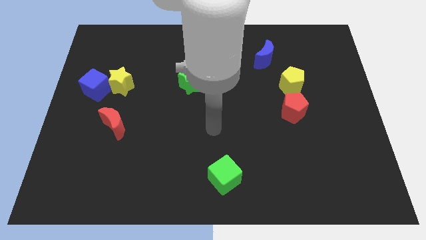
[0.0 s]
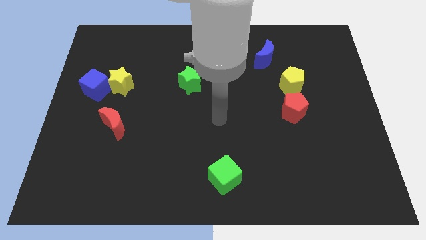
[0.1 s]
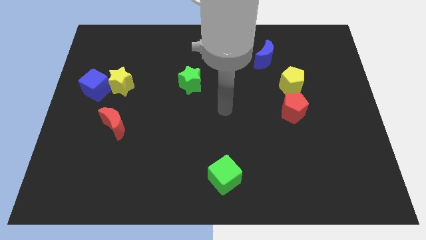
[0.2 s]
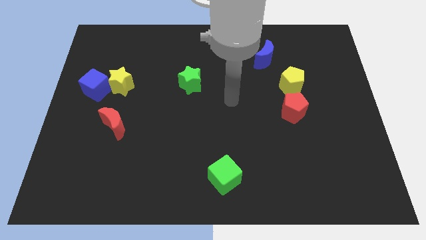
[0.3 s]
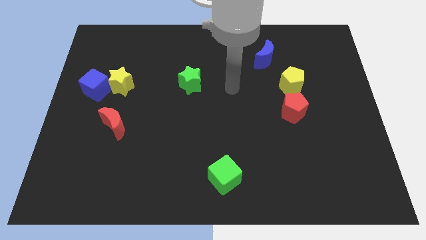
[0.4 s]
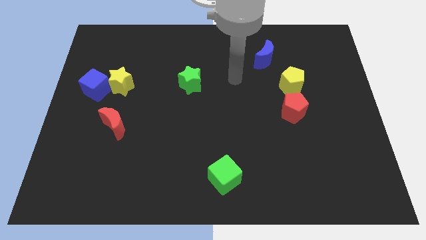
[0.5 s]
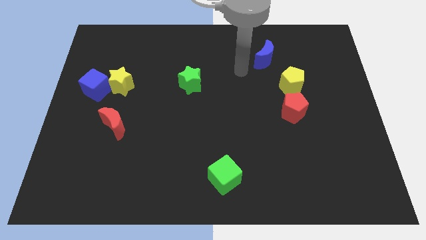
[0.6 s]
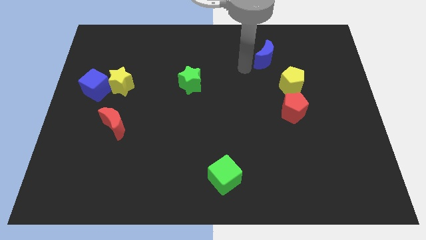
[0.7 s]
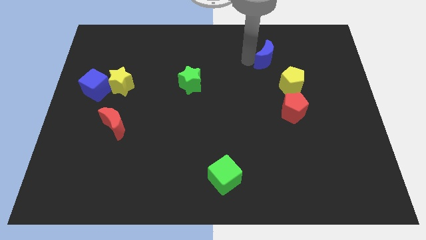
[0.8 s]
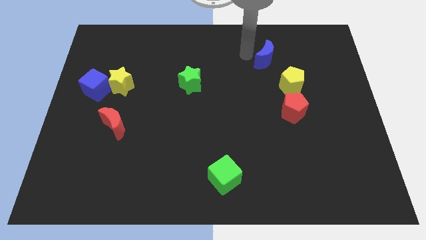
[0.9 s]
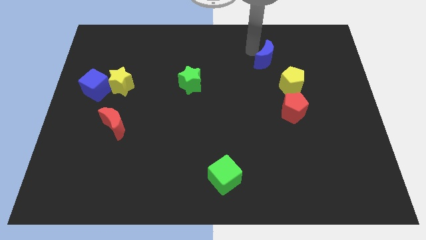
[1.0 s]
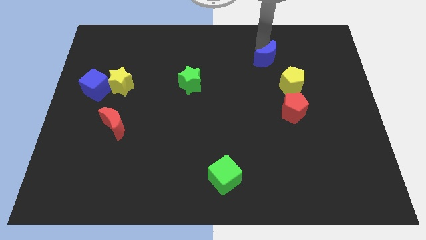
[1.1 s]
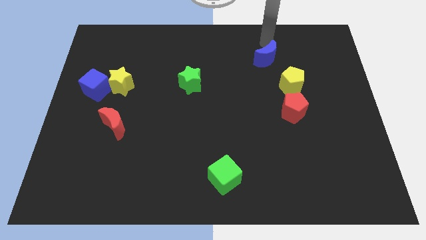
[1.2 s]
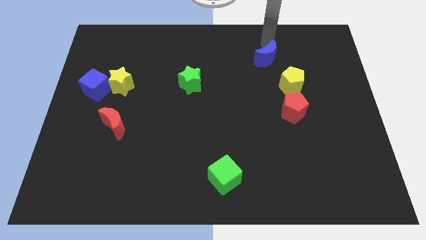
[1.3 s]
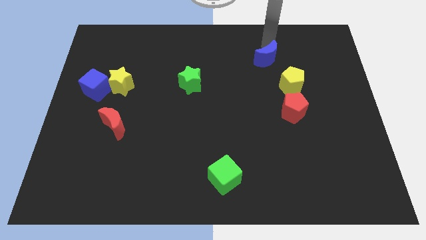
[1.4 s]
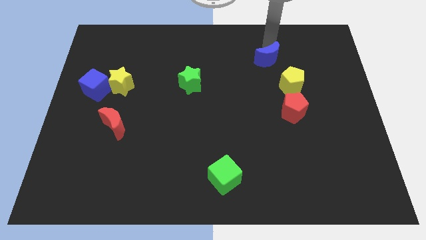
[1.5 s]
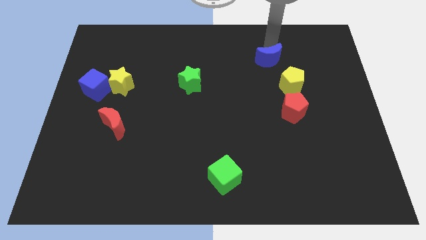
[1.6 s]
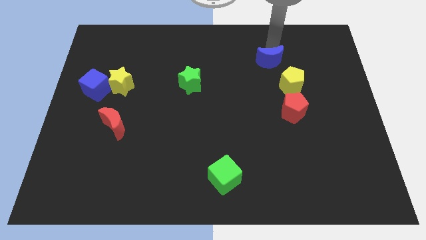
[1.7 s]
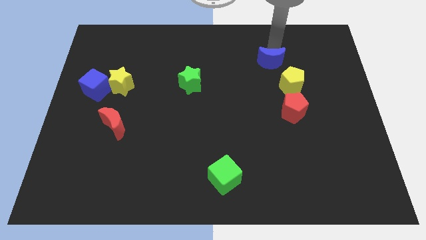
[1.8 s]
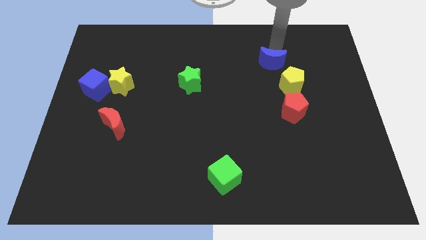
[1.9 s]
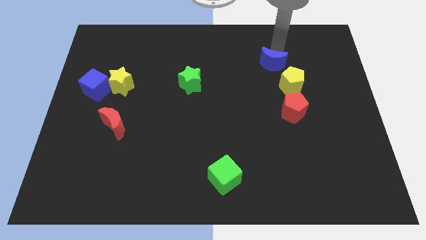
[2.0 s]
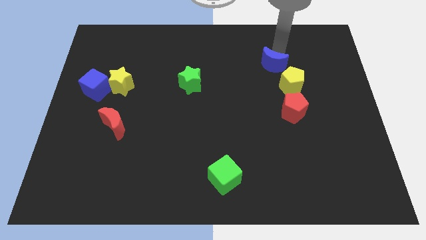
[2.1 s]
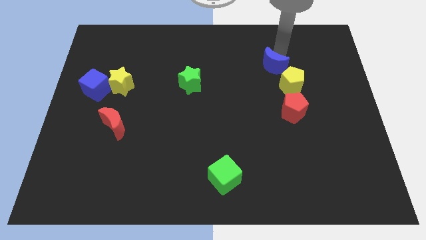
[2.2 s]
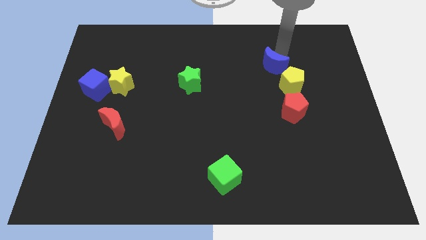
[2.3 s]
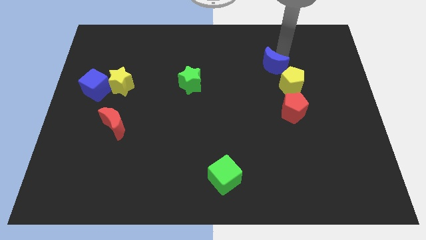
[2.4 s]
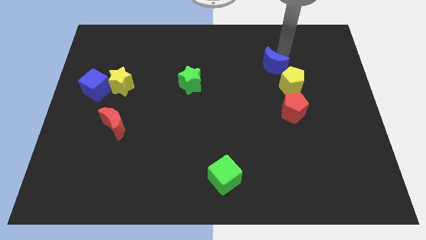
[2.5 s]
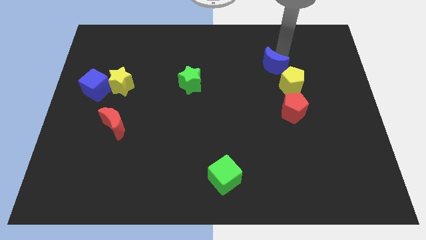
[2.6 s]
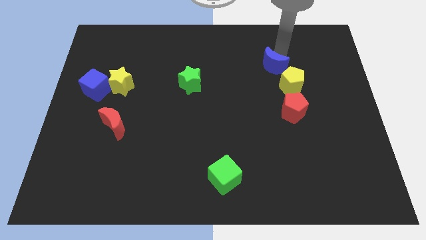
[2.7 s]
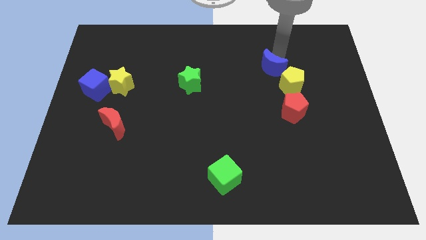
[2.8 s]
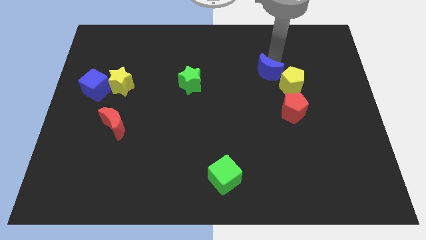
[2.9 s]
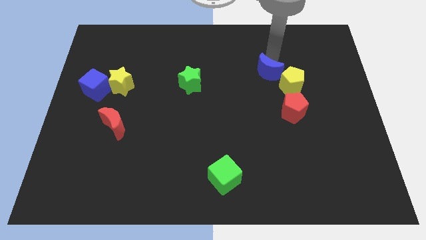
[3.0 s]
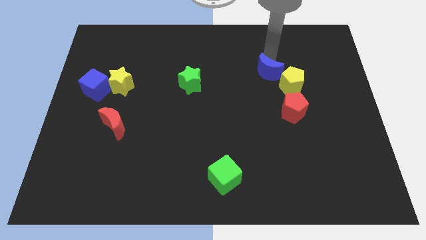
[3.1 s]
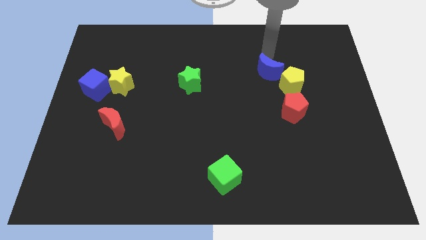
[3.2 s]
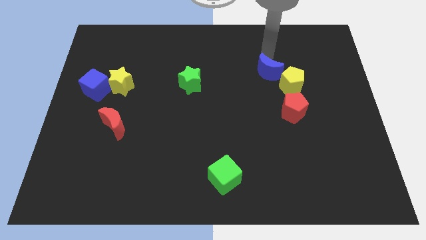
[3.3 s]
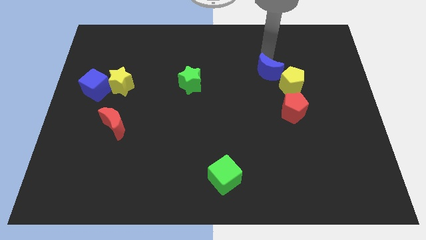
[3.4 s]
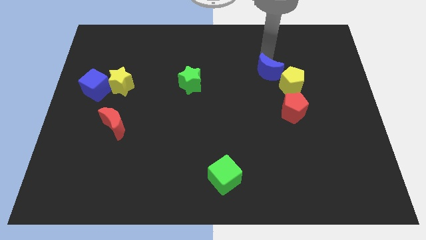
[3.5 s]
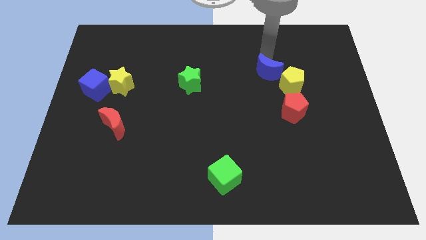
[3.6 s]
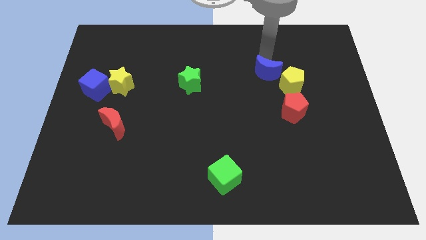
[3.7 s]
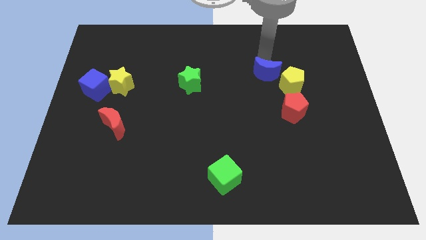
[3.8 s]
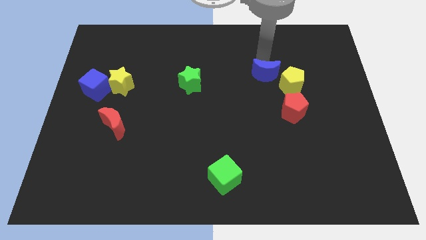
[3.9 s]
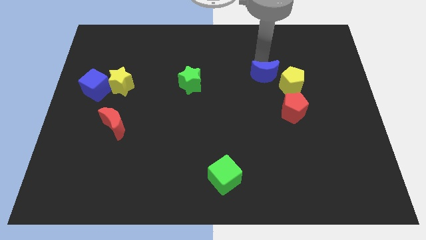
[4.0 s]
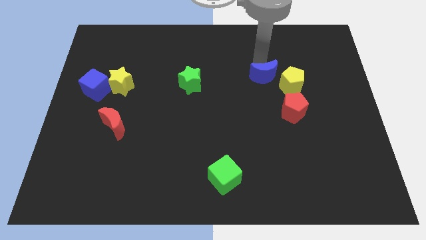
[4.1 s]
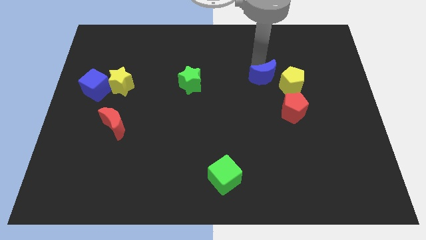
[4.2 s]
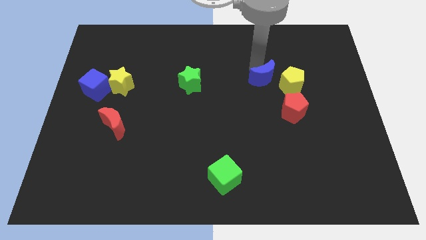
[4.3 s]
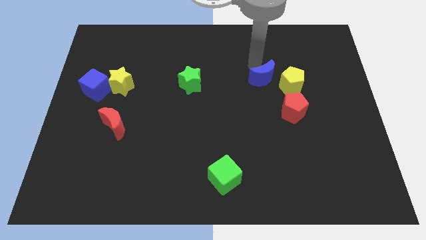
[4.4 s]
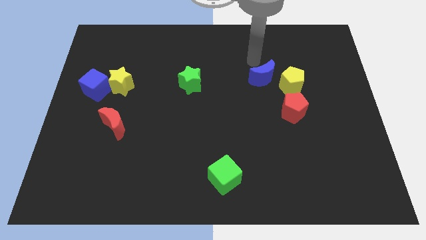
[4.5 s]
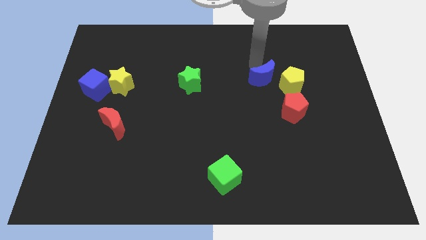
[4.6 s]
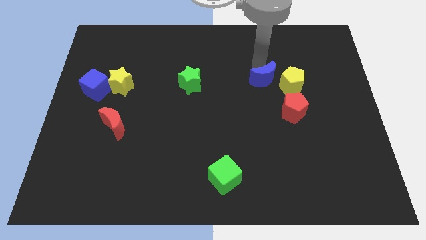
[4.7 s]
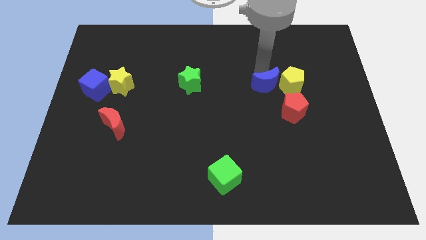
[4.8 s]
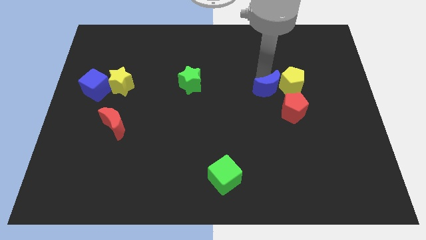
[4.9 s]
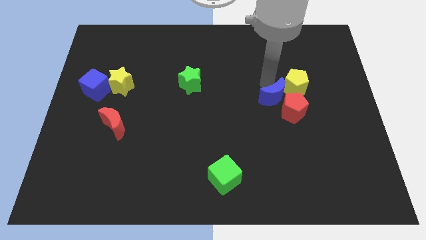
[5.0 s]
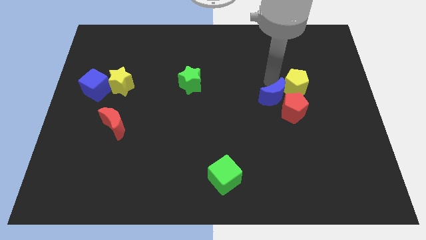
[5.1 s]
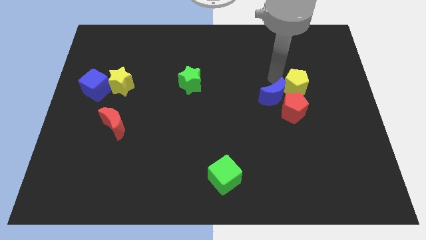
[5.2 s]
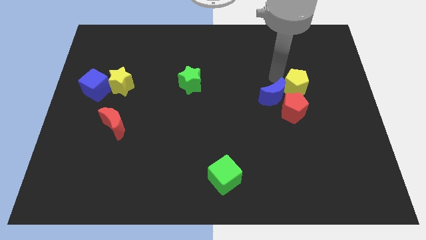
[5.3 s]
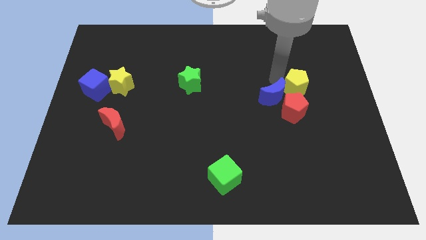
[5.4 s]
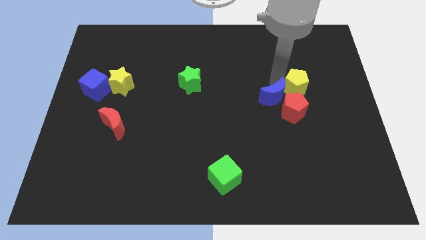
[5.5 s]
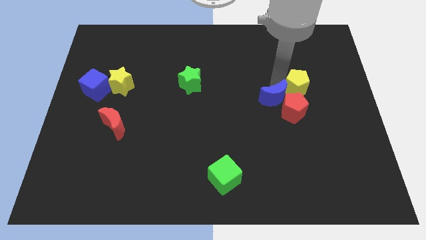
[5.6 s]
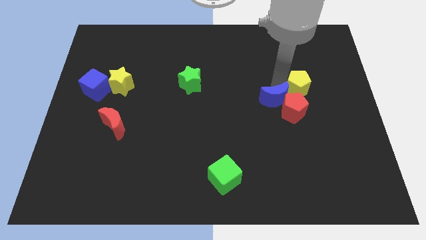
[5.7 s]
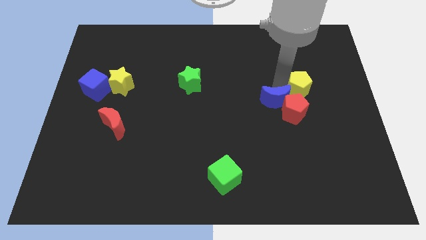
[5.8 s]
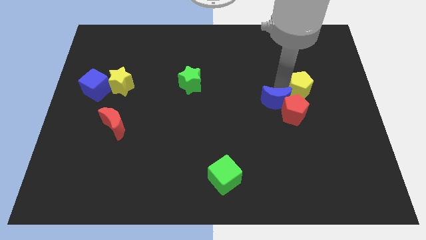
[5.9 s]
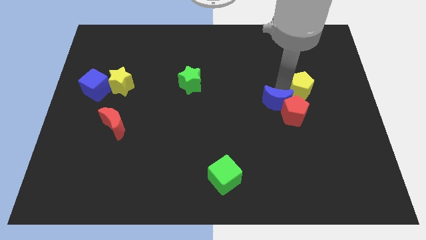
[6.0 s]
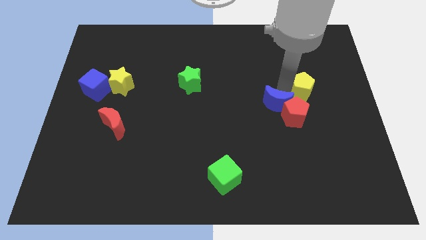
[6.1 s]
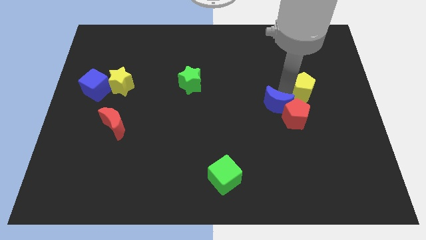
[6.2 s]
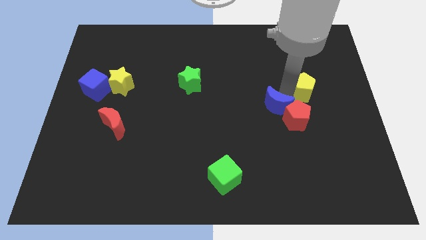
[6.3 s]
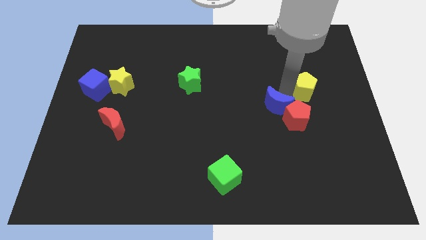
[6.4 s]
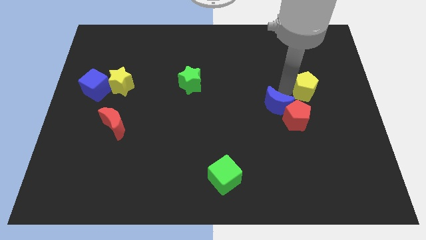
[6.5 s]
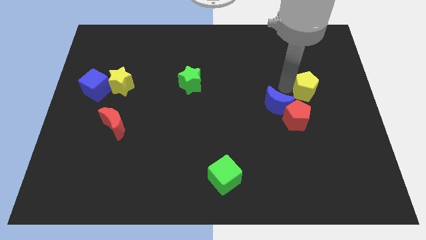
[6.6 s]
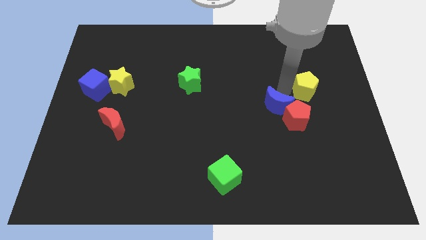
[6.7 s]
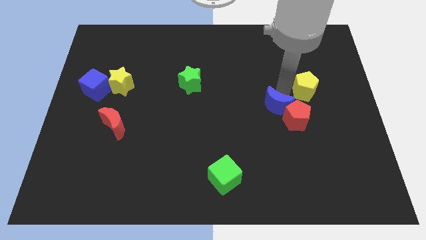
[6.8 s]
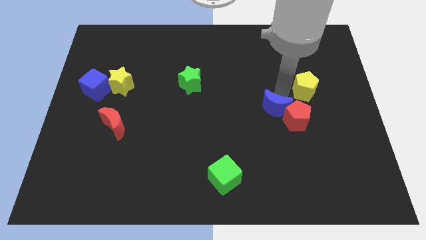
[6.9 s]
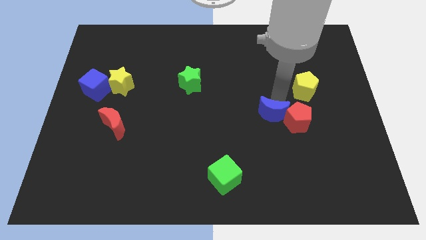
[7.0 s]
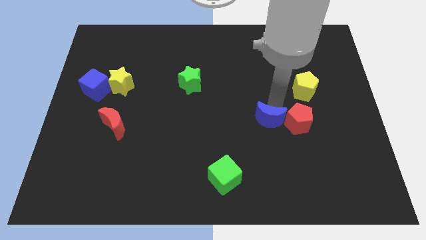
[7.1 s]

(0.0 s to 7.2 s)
push the blue moon down

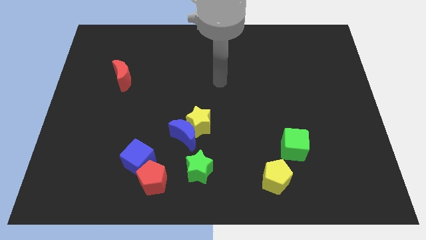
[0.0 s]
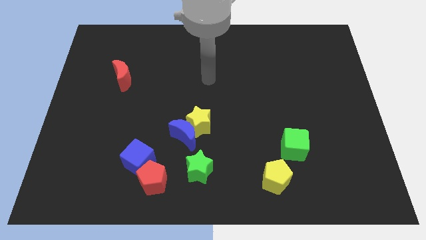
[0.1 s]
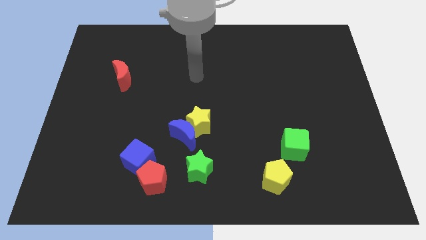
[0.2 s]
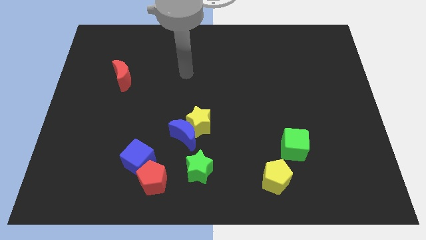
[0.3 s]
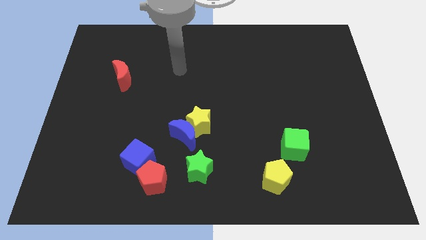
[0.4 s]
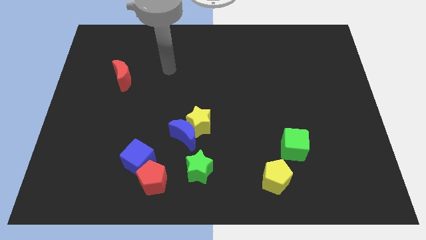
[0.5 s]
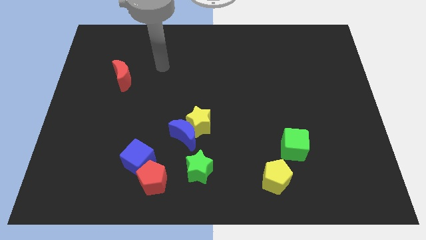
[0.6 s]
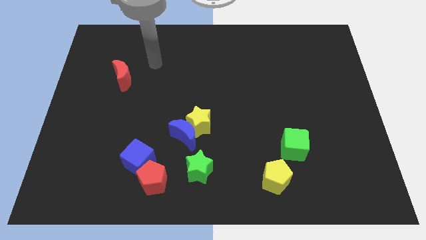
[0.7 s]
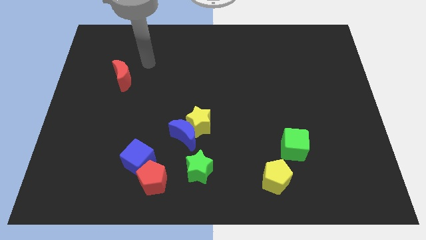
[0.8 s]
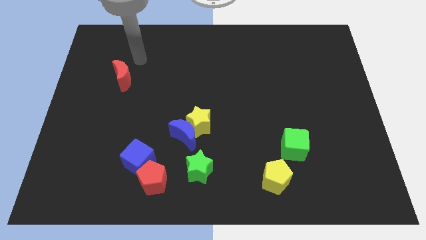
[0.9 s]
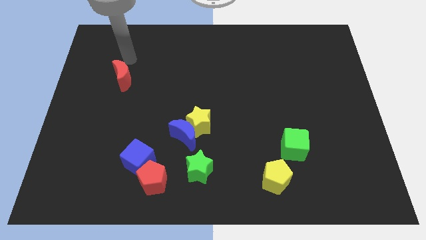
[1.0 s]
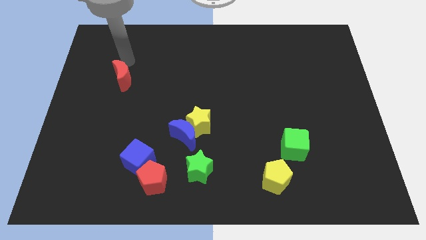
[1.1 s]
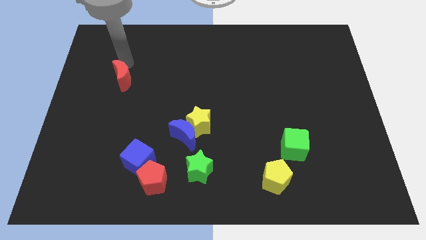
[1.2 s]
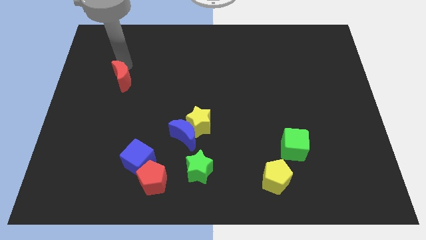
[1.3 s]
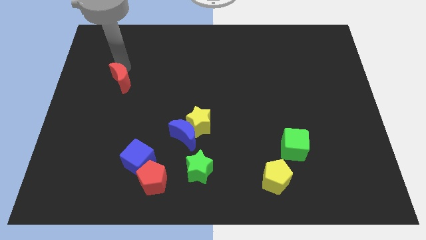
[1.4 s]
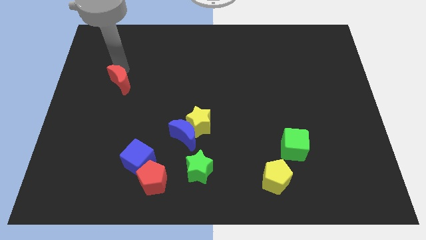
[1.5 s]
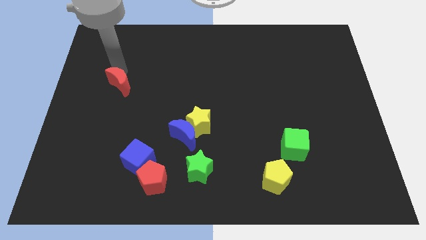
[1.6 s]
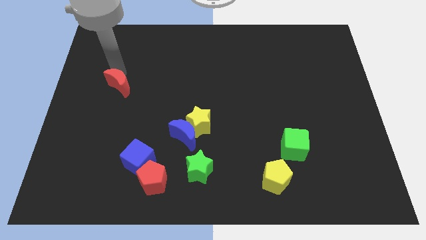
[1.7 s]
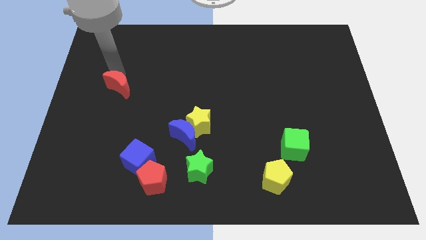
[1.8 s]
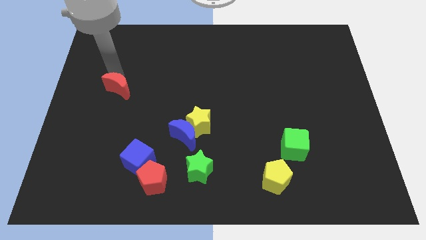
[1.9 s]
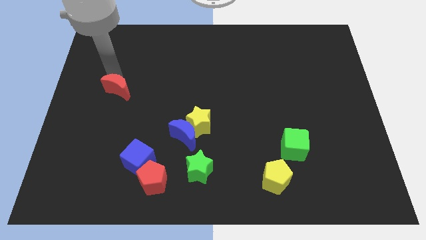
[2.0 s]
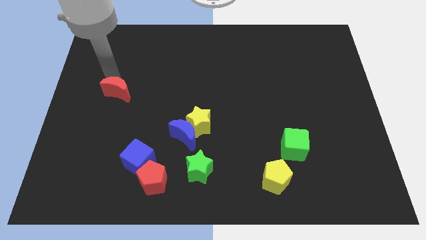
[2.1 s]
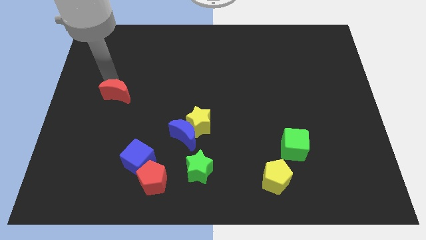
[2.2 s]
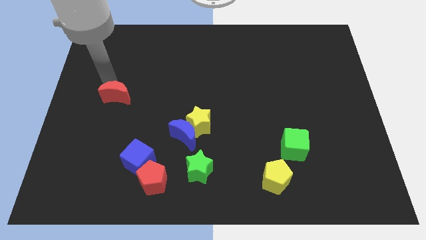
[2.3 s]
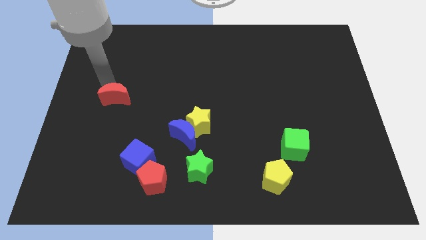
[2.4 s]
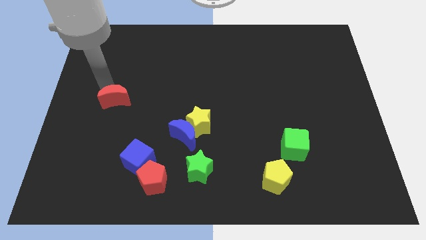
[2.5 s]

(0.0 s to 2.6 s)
slightly slide the red moon downwards
